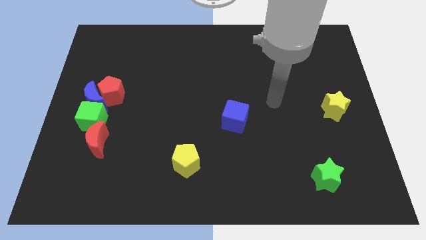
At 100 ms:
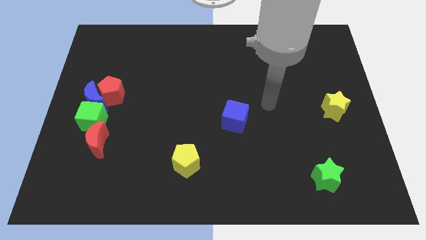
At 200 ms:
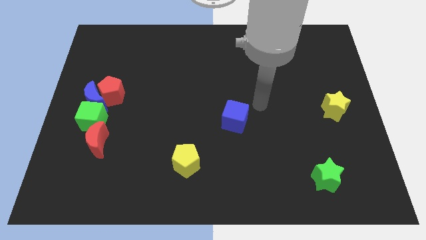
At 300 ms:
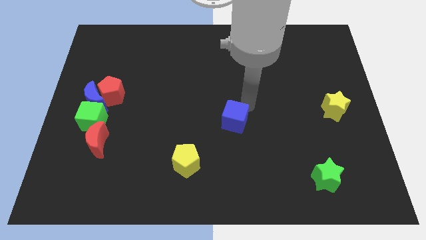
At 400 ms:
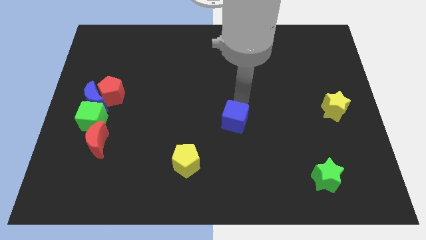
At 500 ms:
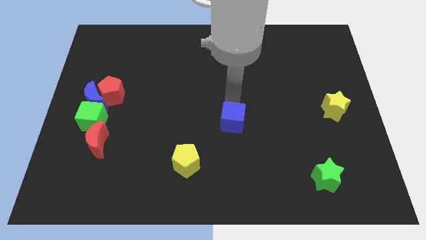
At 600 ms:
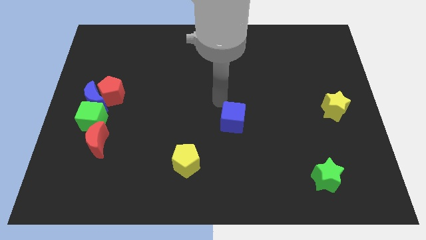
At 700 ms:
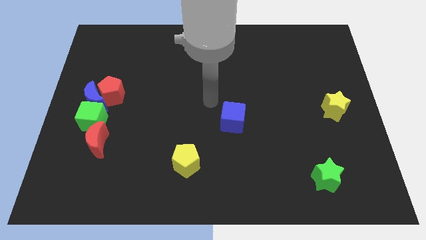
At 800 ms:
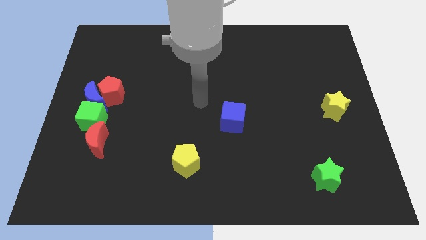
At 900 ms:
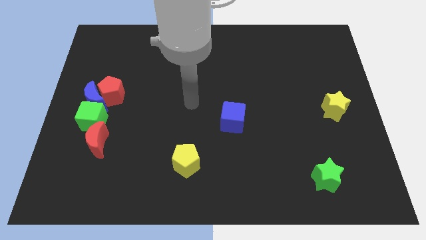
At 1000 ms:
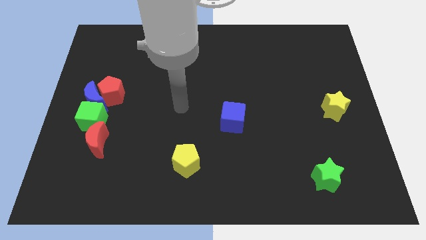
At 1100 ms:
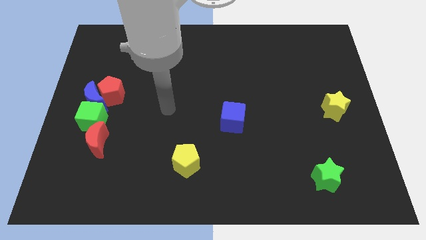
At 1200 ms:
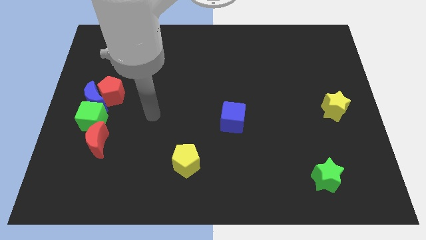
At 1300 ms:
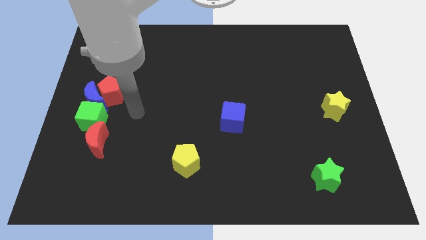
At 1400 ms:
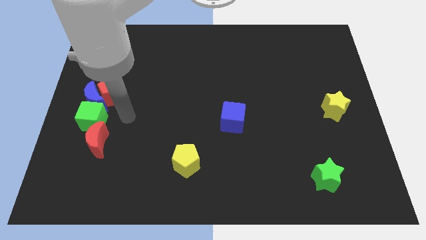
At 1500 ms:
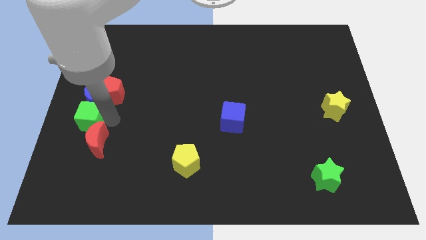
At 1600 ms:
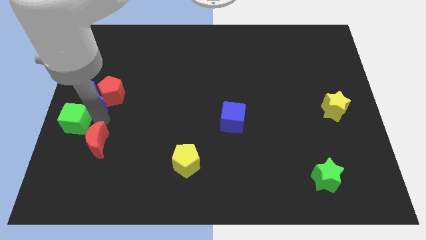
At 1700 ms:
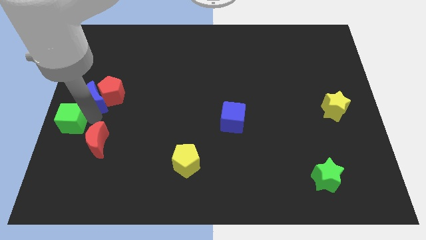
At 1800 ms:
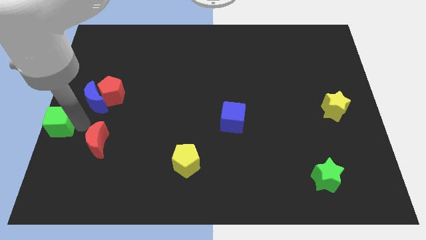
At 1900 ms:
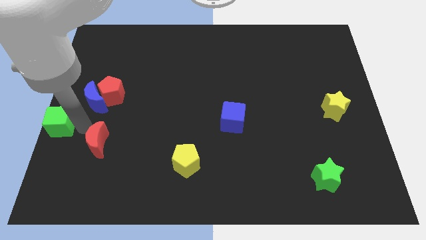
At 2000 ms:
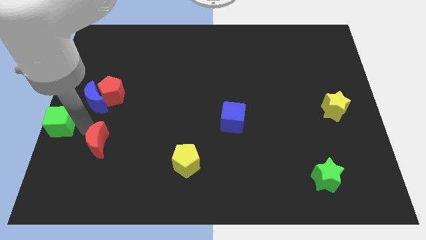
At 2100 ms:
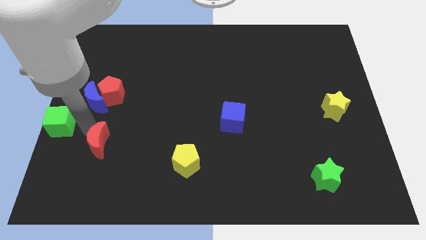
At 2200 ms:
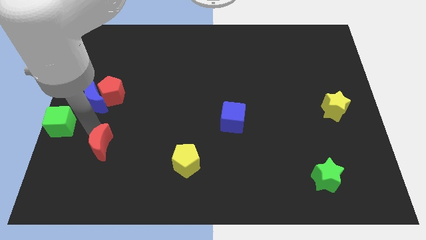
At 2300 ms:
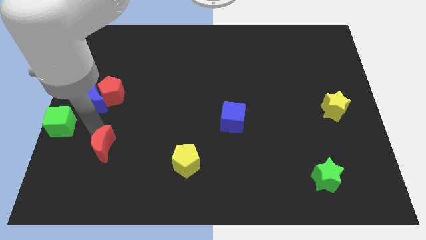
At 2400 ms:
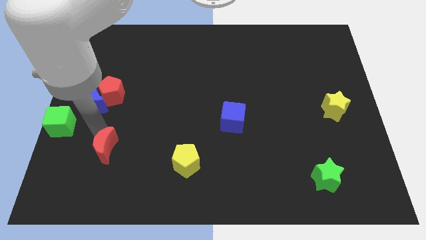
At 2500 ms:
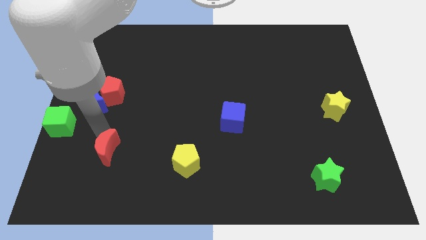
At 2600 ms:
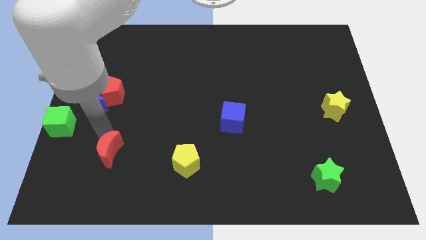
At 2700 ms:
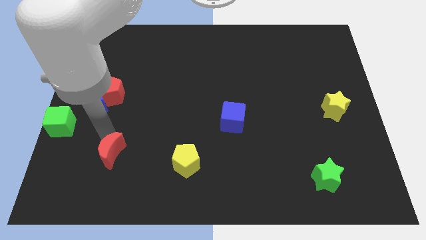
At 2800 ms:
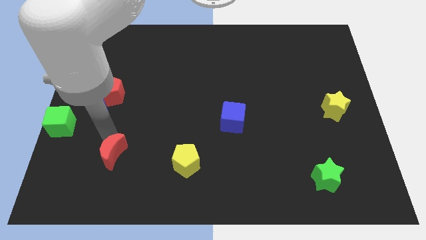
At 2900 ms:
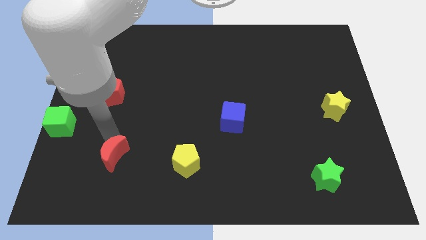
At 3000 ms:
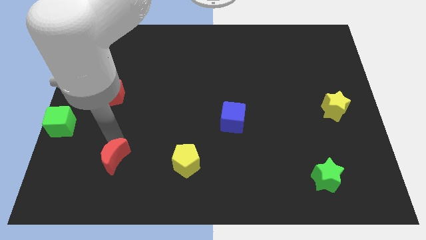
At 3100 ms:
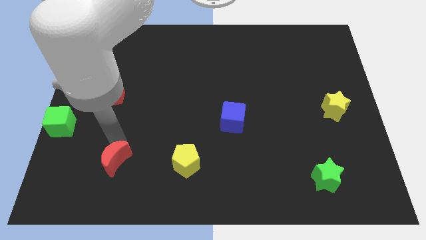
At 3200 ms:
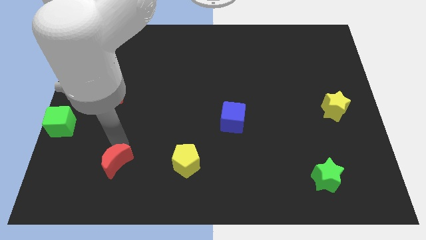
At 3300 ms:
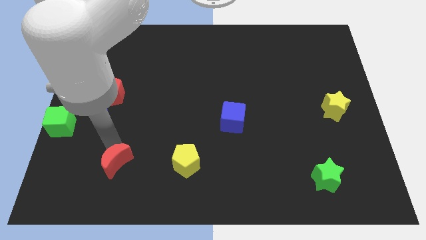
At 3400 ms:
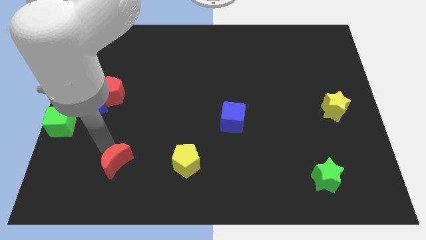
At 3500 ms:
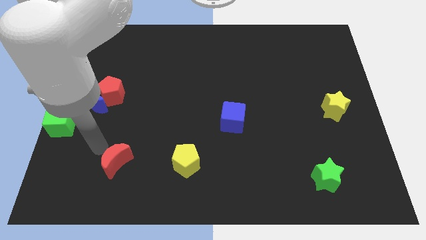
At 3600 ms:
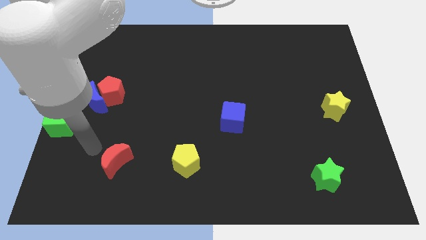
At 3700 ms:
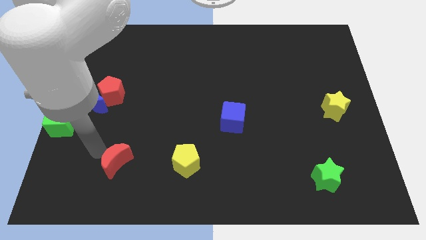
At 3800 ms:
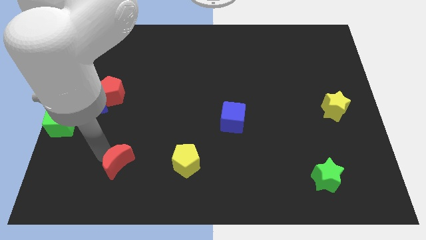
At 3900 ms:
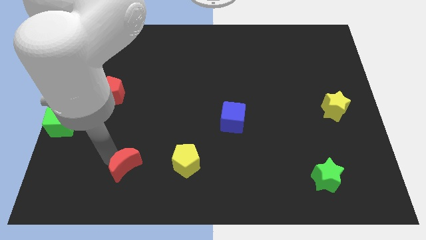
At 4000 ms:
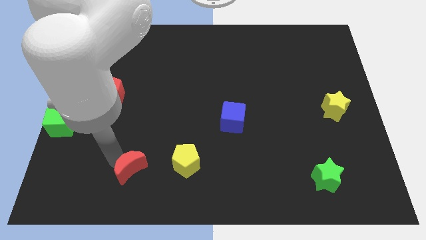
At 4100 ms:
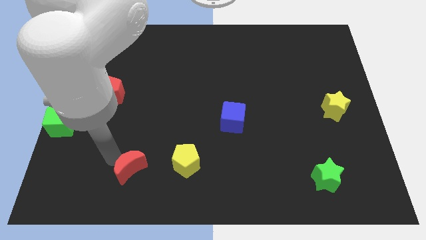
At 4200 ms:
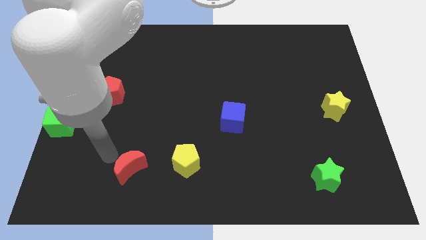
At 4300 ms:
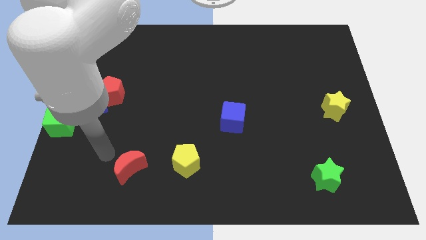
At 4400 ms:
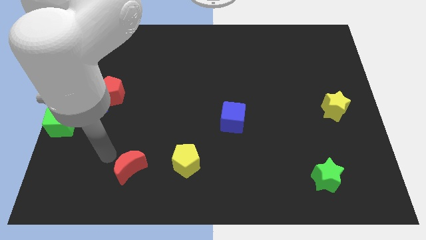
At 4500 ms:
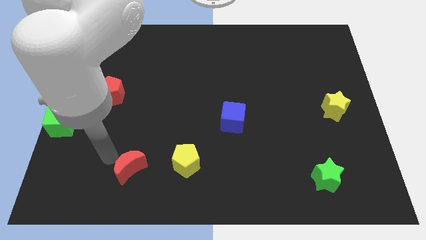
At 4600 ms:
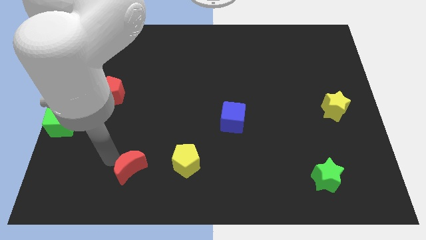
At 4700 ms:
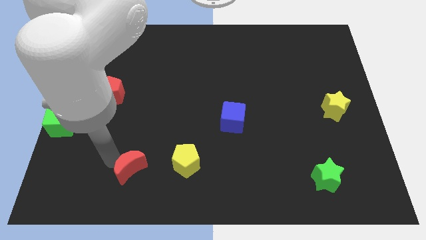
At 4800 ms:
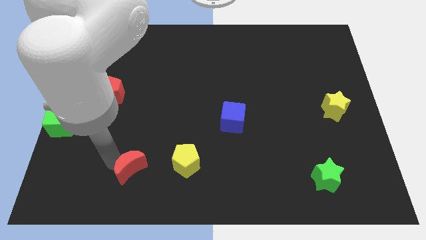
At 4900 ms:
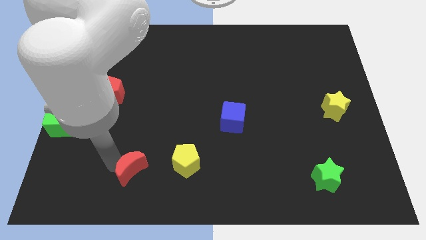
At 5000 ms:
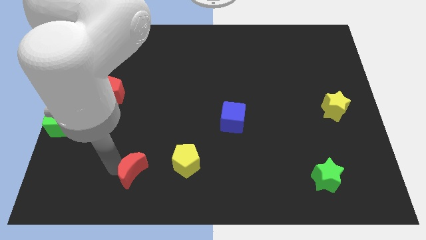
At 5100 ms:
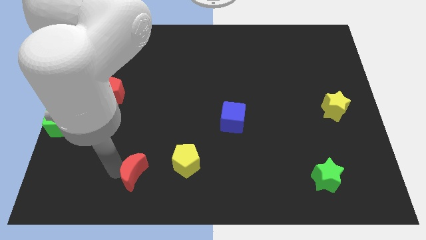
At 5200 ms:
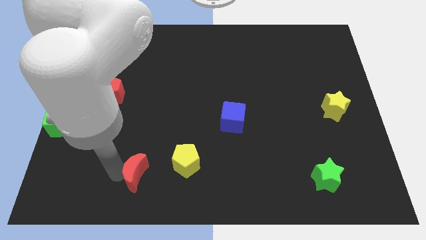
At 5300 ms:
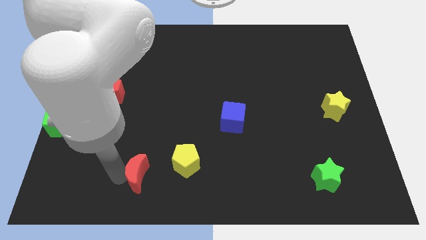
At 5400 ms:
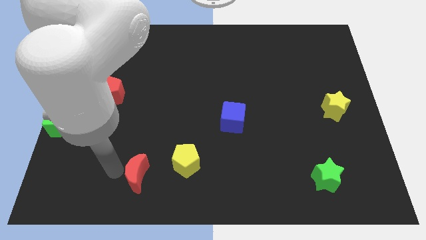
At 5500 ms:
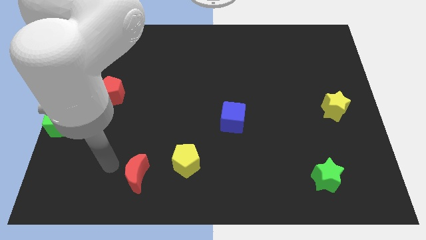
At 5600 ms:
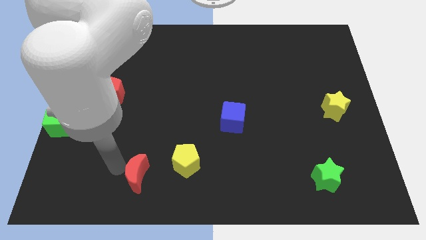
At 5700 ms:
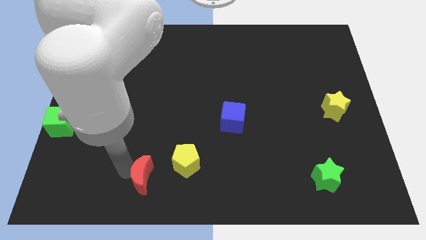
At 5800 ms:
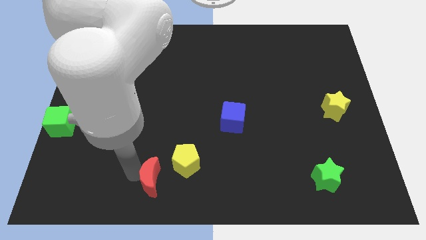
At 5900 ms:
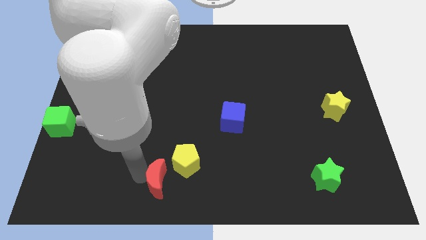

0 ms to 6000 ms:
push the red moon to the bottom

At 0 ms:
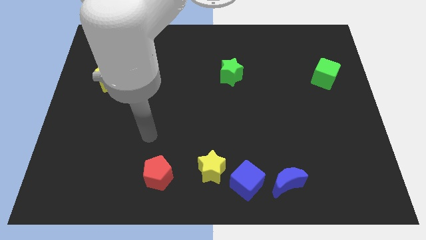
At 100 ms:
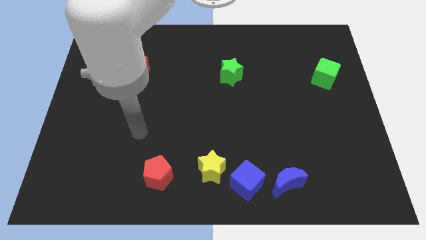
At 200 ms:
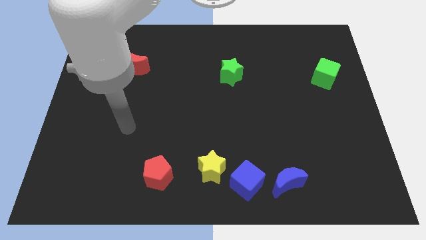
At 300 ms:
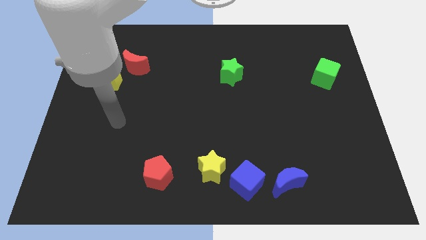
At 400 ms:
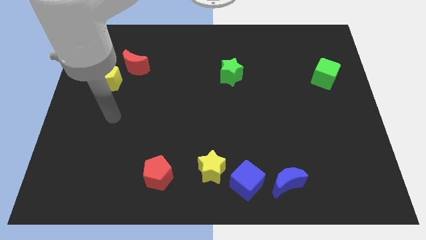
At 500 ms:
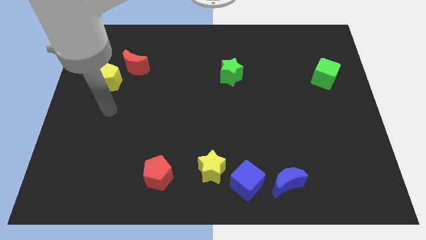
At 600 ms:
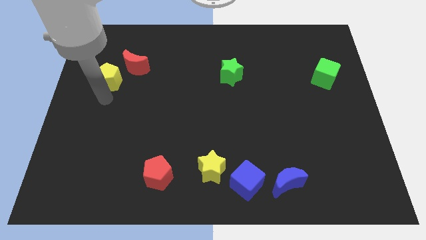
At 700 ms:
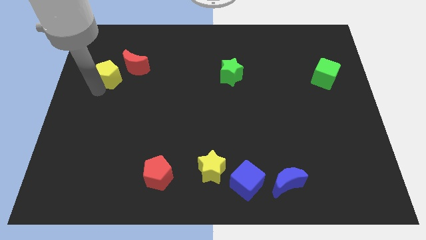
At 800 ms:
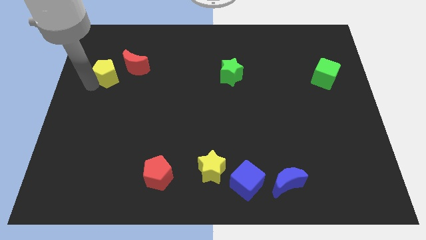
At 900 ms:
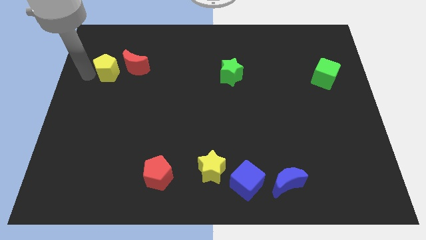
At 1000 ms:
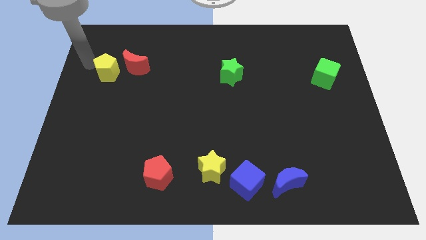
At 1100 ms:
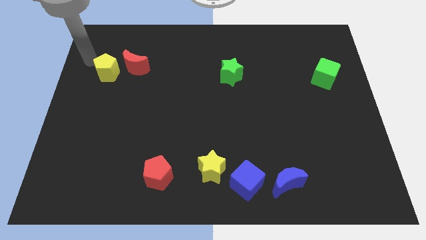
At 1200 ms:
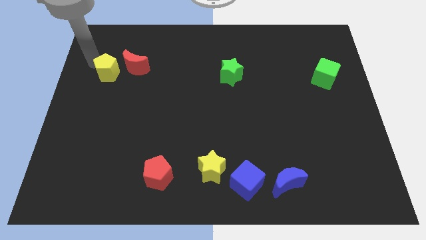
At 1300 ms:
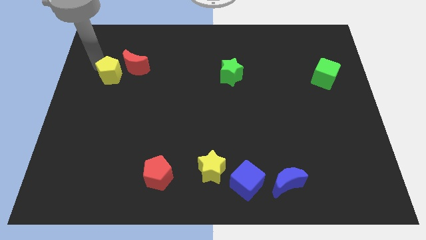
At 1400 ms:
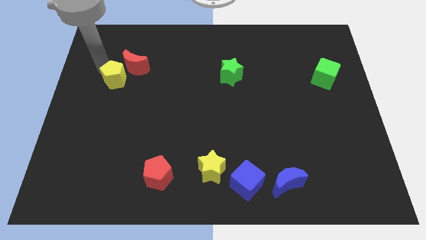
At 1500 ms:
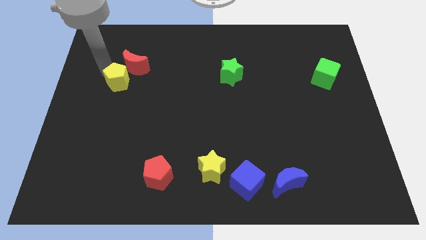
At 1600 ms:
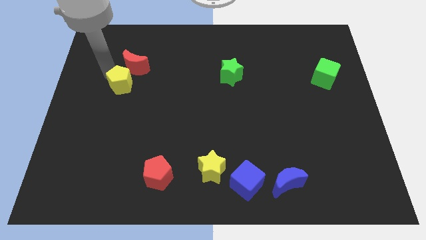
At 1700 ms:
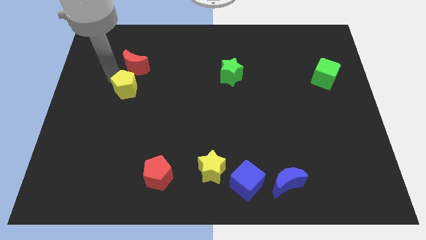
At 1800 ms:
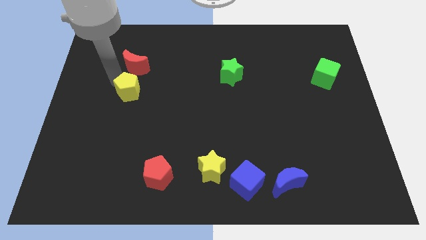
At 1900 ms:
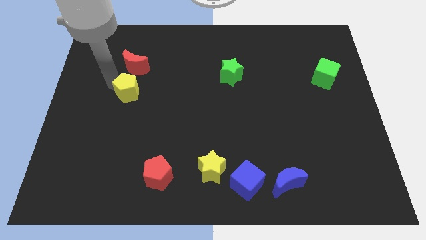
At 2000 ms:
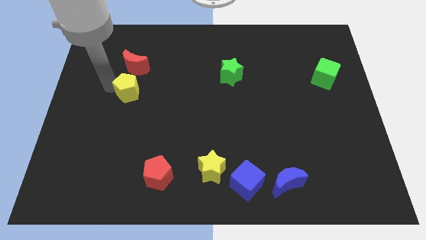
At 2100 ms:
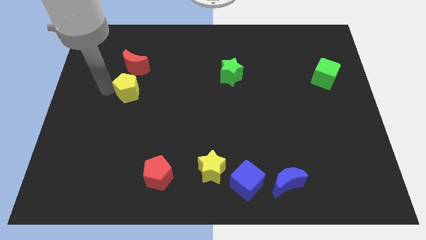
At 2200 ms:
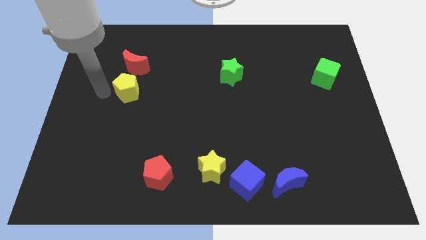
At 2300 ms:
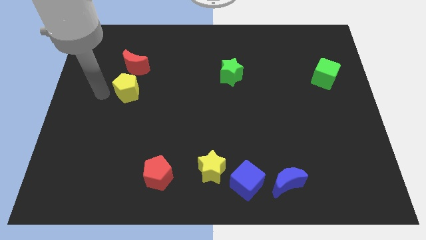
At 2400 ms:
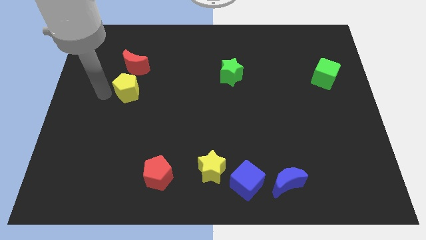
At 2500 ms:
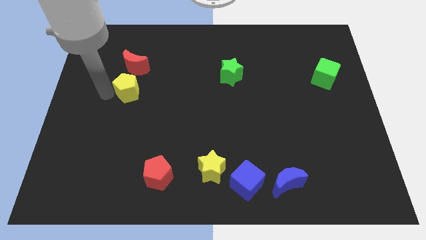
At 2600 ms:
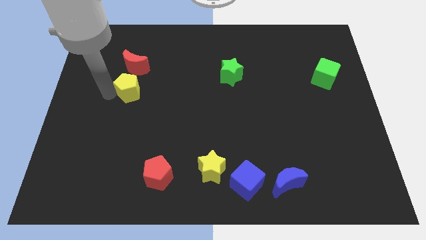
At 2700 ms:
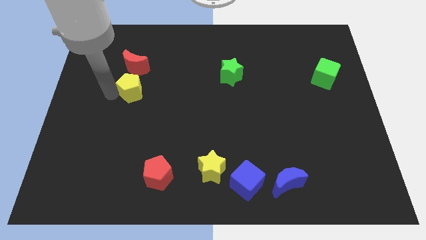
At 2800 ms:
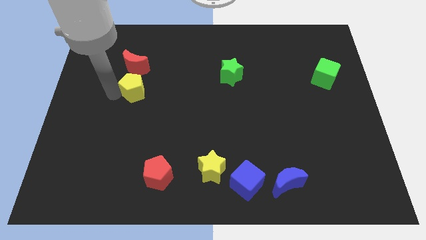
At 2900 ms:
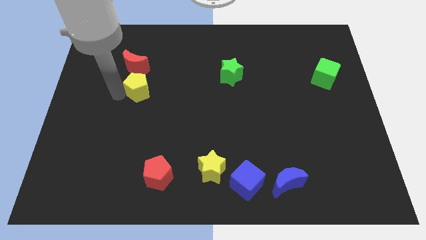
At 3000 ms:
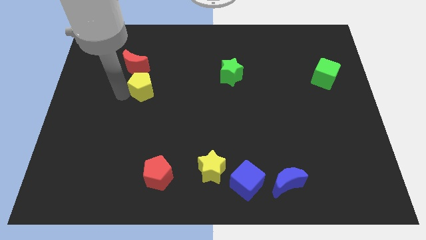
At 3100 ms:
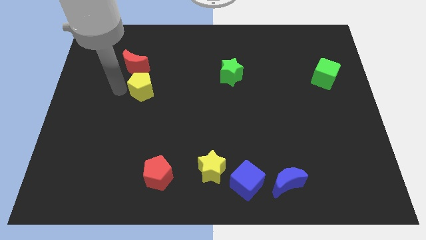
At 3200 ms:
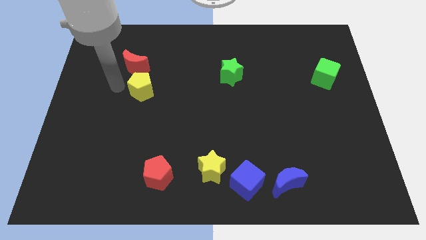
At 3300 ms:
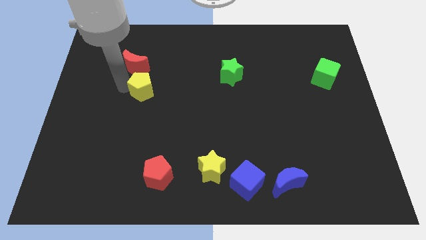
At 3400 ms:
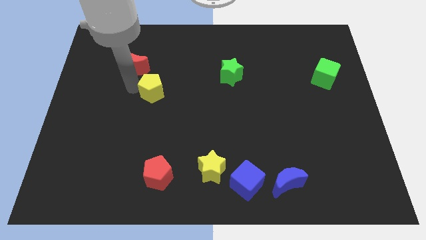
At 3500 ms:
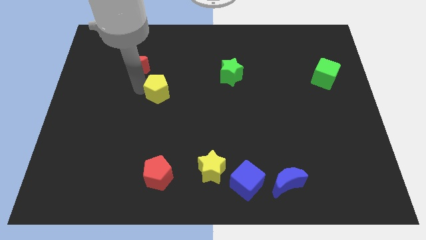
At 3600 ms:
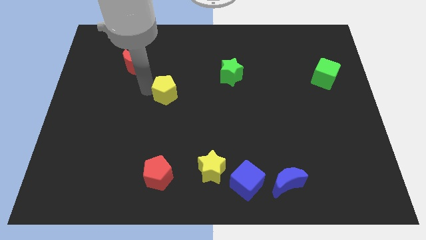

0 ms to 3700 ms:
put the yellow pentagon to the middle of the board
